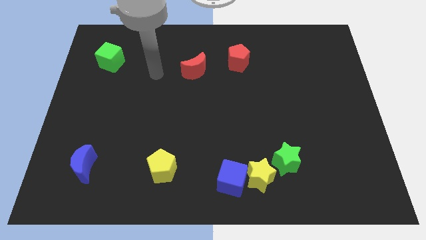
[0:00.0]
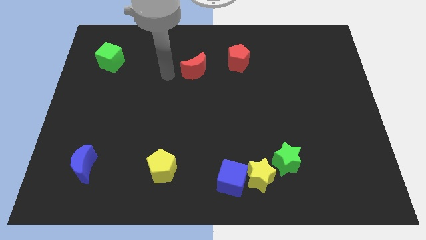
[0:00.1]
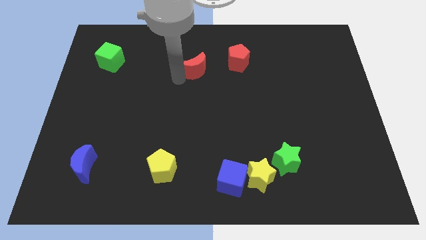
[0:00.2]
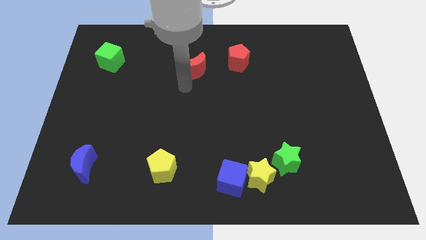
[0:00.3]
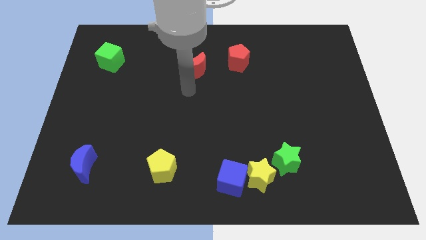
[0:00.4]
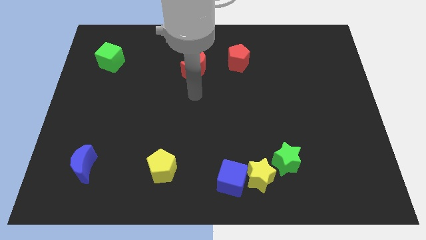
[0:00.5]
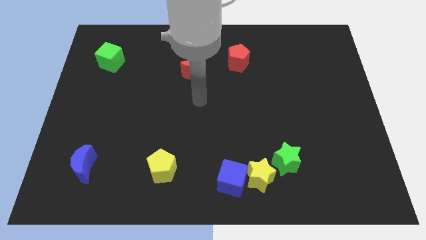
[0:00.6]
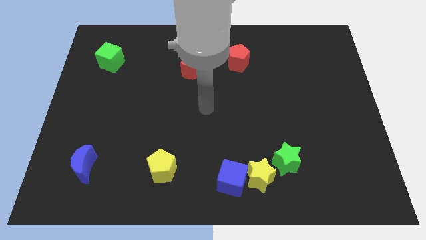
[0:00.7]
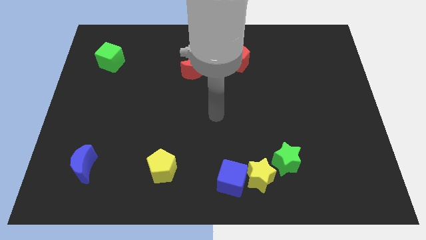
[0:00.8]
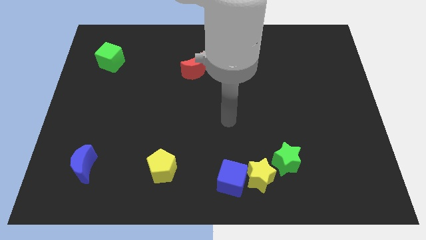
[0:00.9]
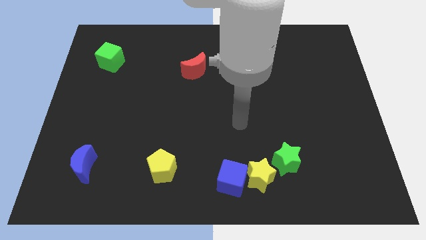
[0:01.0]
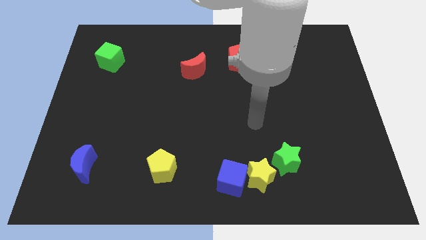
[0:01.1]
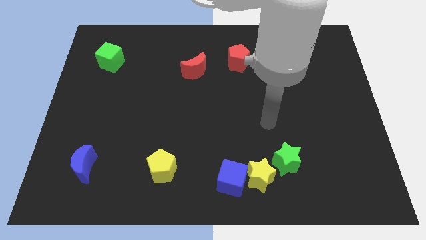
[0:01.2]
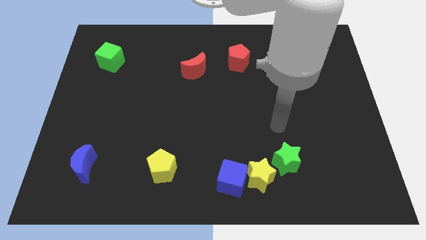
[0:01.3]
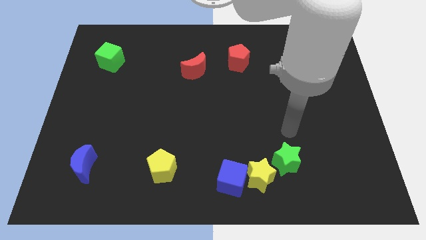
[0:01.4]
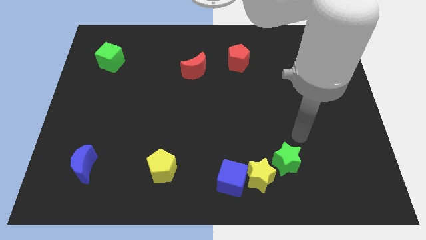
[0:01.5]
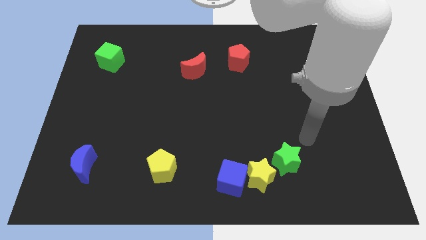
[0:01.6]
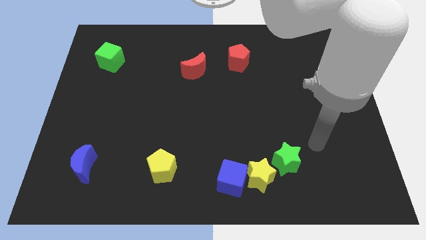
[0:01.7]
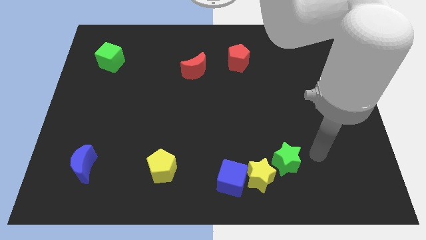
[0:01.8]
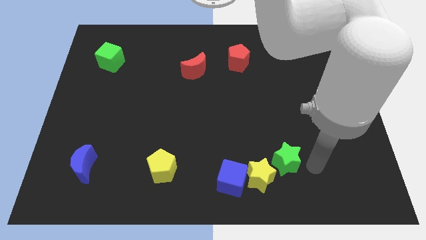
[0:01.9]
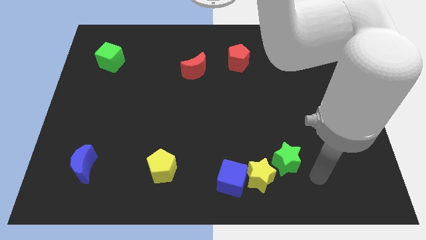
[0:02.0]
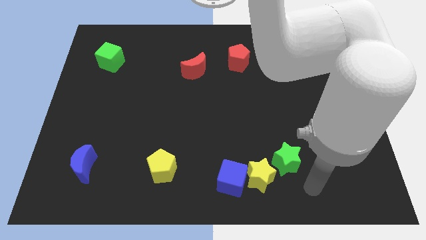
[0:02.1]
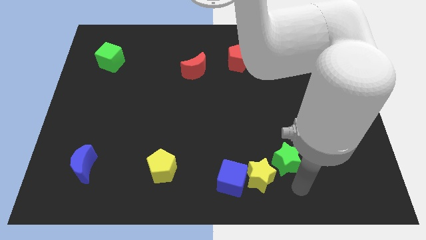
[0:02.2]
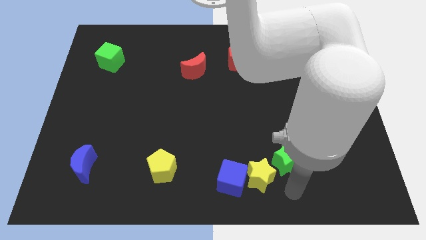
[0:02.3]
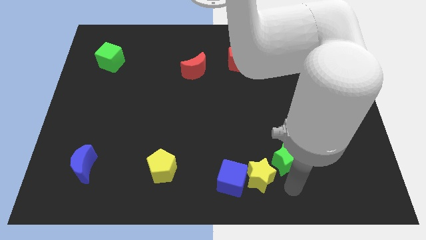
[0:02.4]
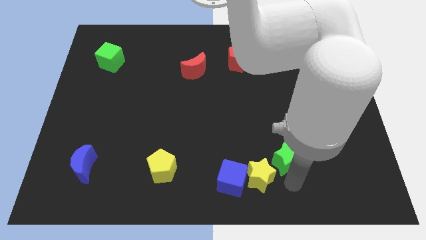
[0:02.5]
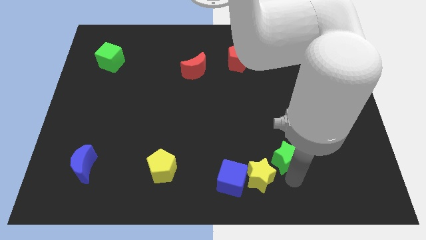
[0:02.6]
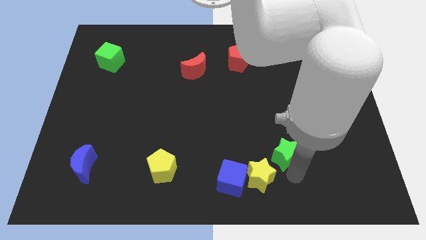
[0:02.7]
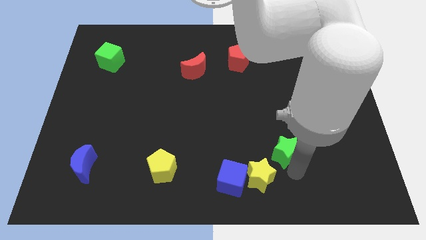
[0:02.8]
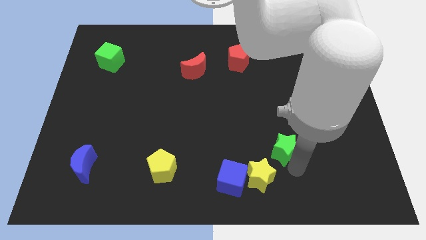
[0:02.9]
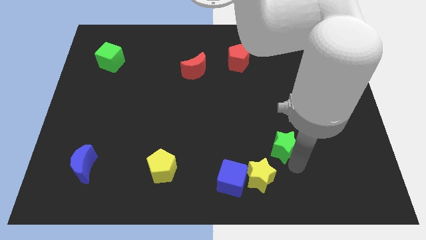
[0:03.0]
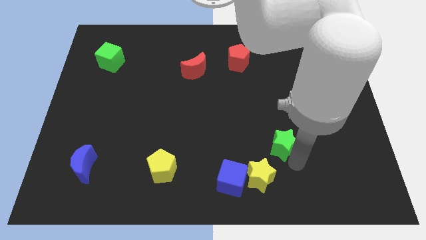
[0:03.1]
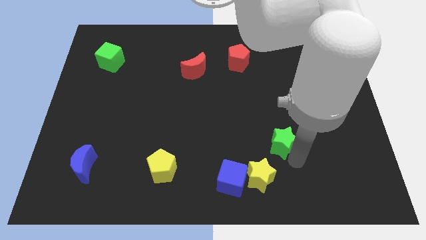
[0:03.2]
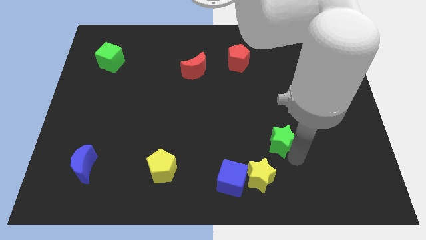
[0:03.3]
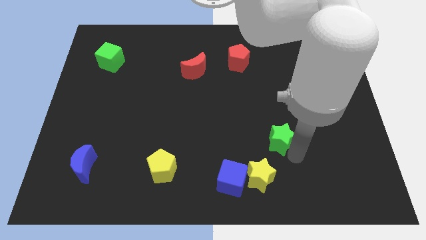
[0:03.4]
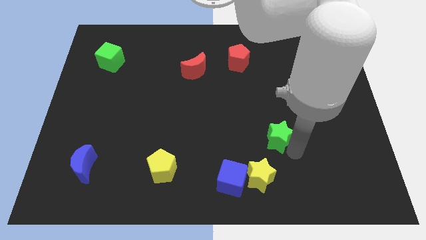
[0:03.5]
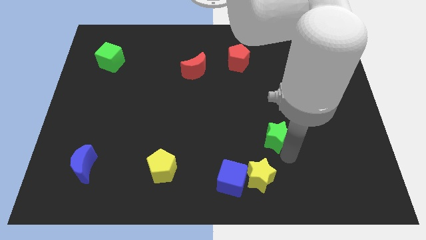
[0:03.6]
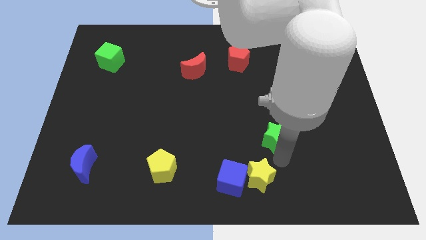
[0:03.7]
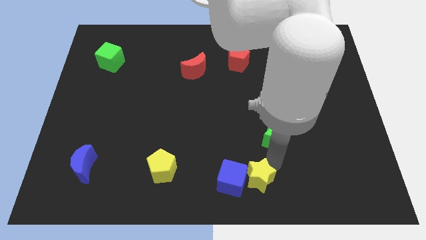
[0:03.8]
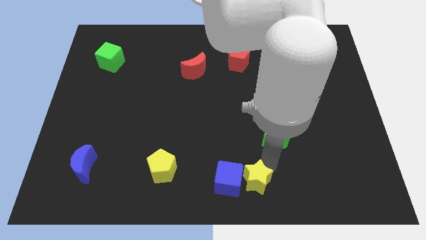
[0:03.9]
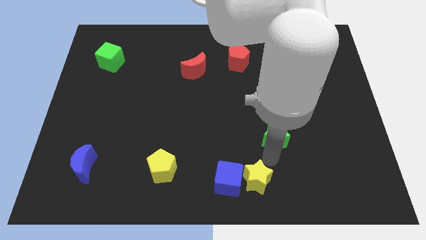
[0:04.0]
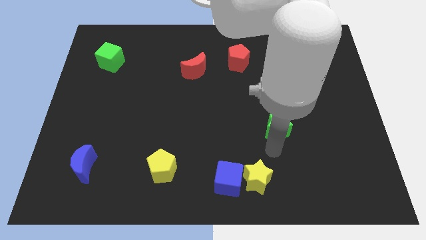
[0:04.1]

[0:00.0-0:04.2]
move the green star slightly upwards

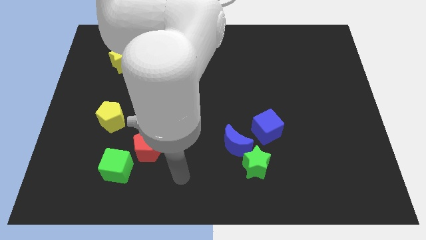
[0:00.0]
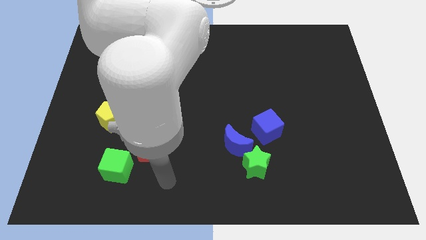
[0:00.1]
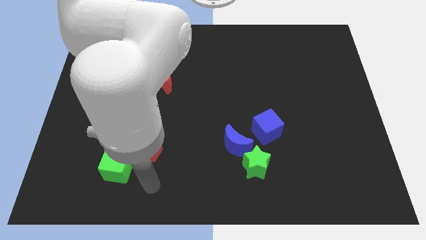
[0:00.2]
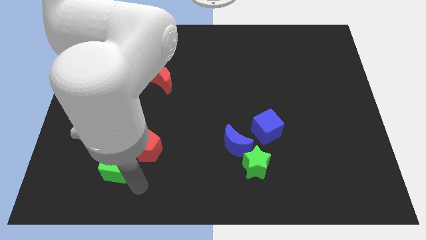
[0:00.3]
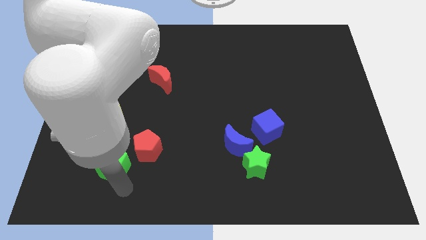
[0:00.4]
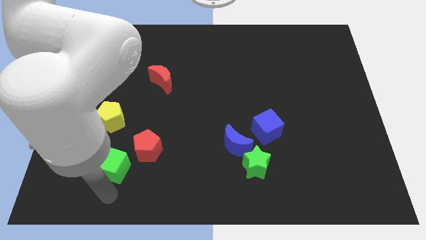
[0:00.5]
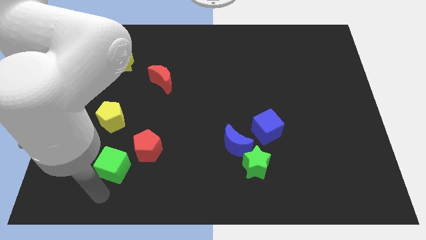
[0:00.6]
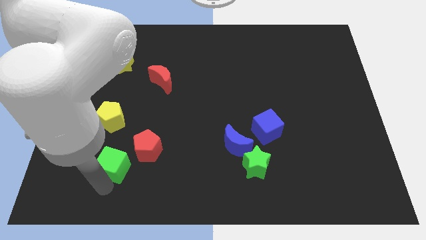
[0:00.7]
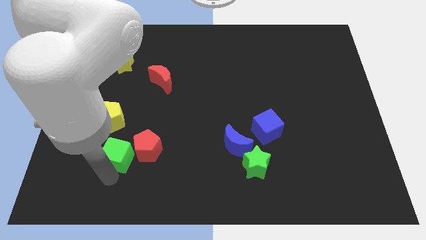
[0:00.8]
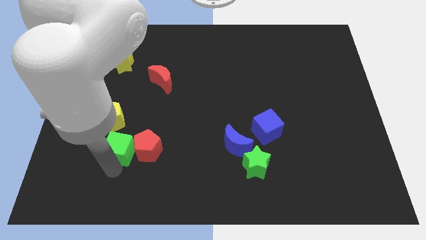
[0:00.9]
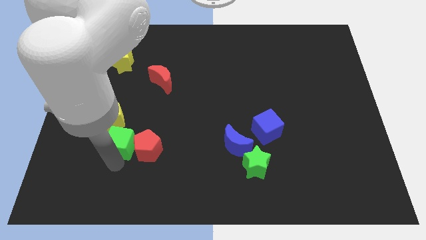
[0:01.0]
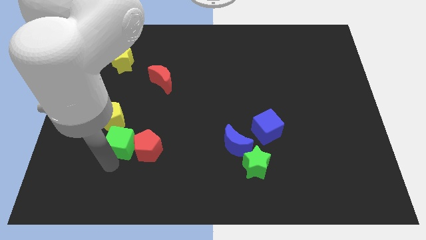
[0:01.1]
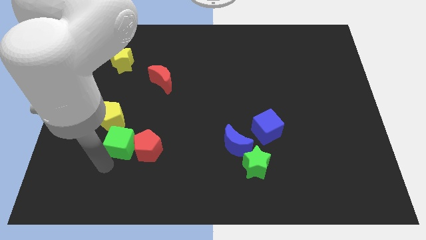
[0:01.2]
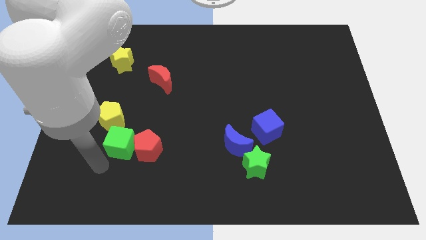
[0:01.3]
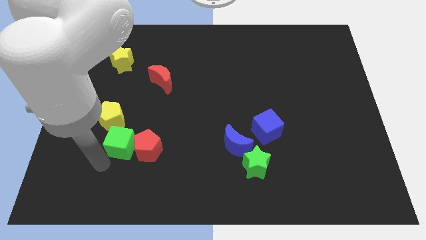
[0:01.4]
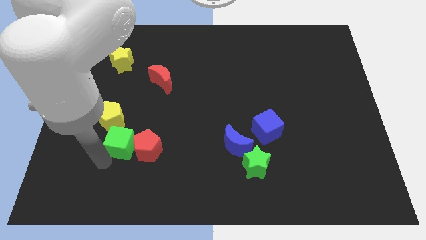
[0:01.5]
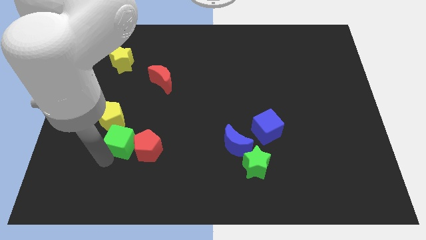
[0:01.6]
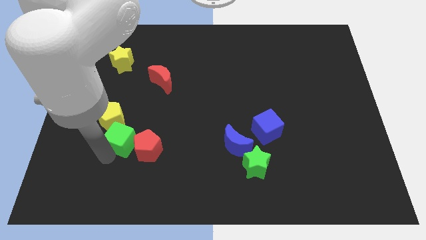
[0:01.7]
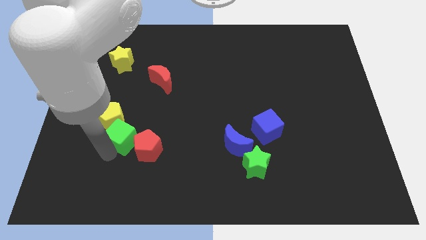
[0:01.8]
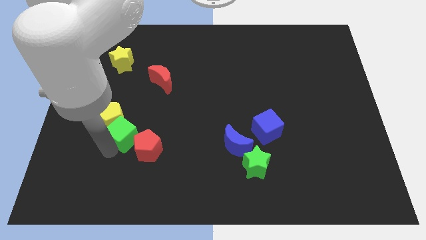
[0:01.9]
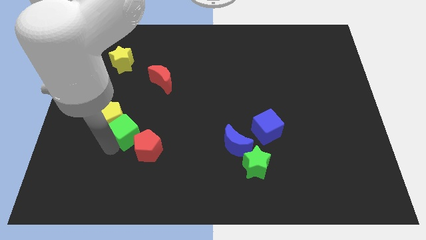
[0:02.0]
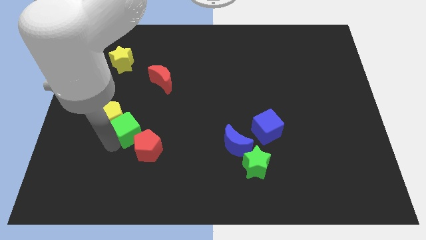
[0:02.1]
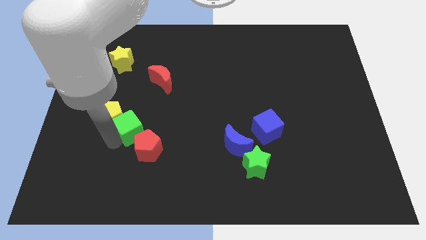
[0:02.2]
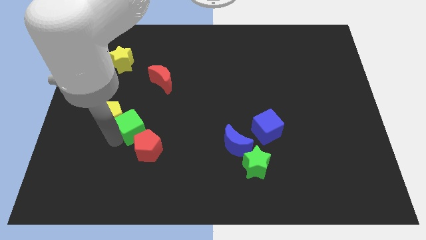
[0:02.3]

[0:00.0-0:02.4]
slightly move the green cube diagonally up and to the right

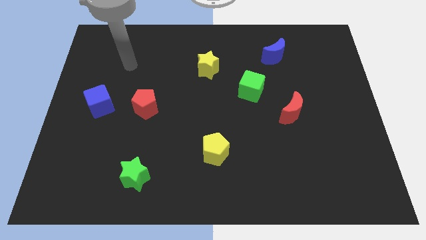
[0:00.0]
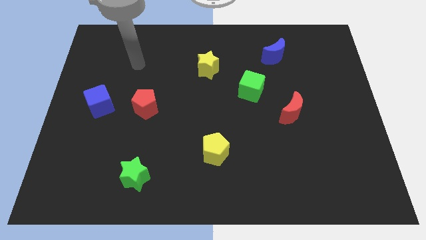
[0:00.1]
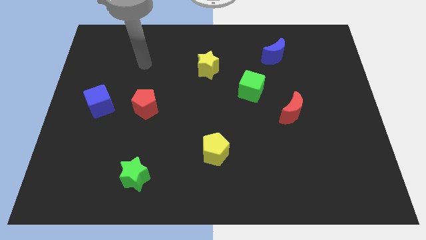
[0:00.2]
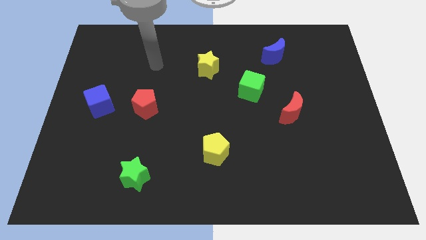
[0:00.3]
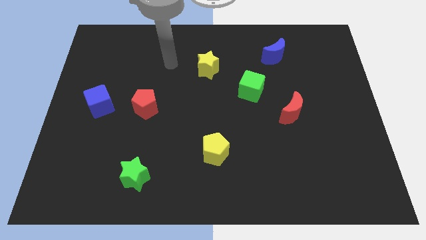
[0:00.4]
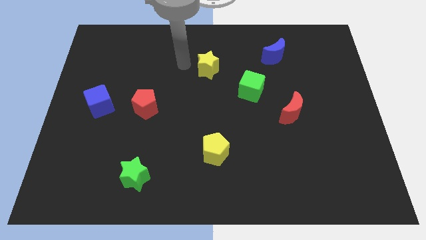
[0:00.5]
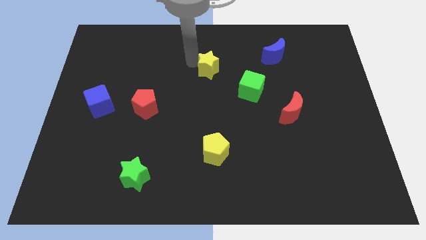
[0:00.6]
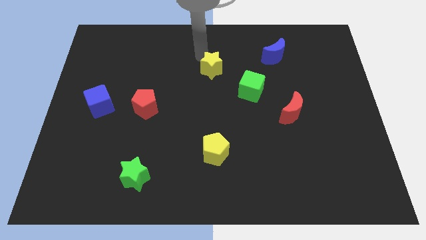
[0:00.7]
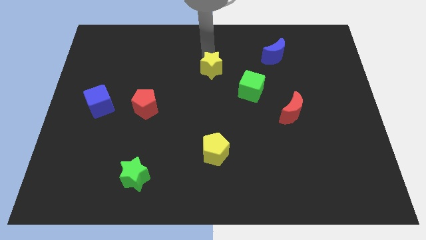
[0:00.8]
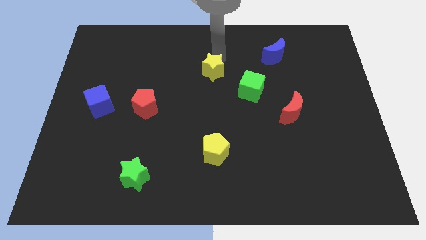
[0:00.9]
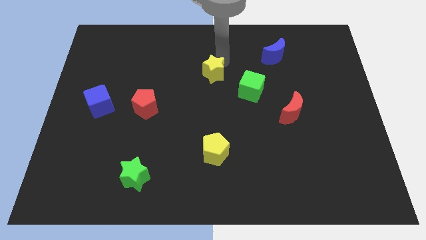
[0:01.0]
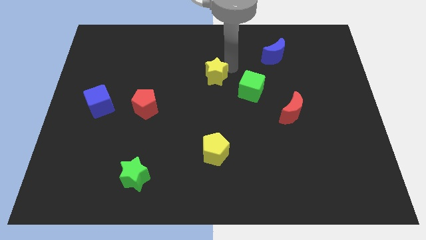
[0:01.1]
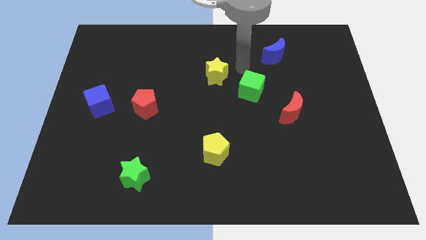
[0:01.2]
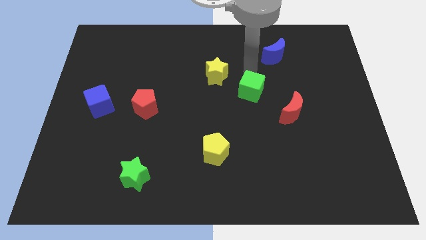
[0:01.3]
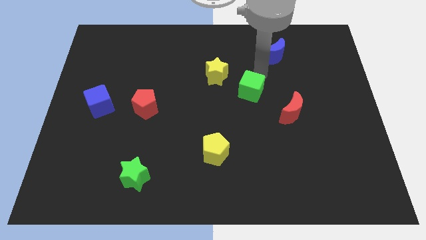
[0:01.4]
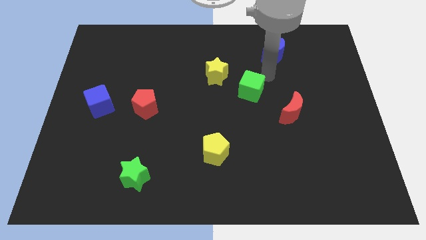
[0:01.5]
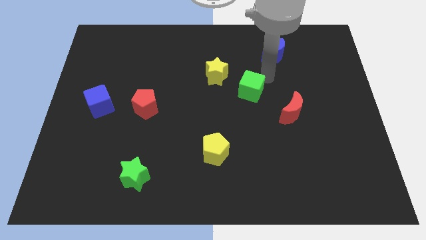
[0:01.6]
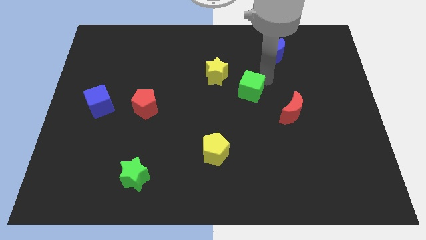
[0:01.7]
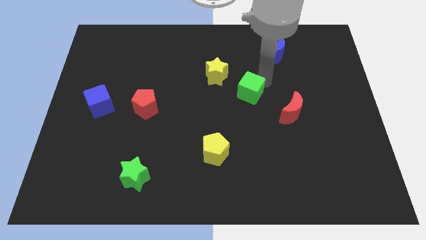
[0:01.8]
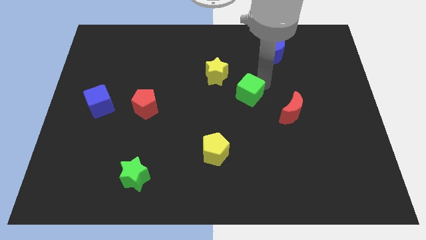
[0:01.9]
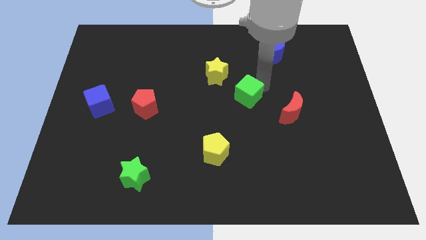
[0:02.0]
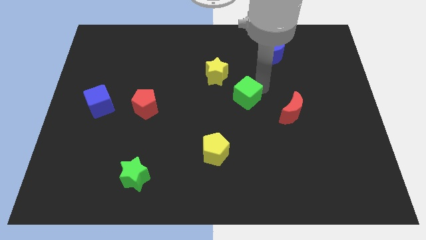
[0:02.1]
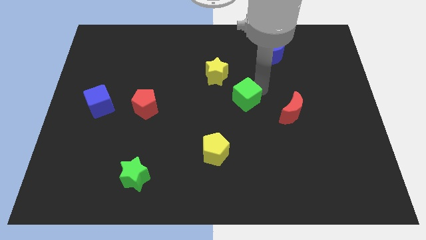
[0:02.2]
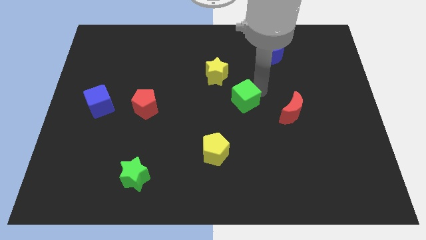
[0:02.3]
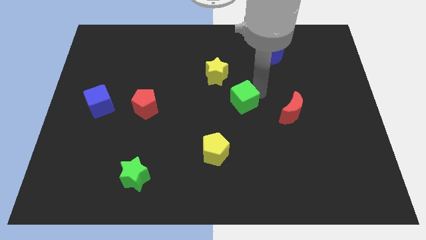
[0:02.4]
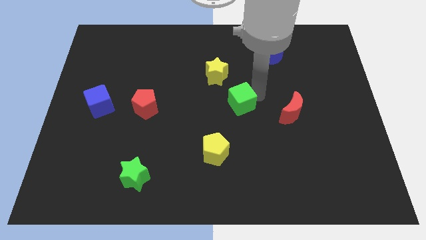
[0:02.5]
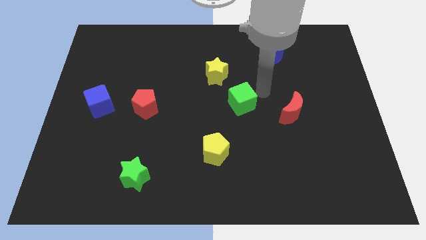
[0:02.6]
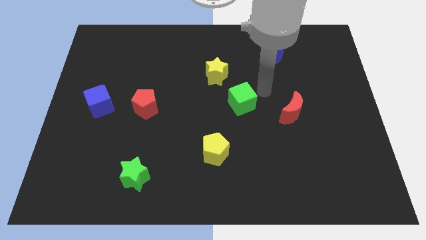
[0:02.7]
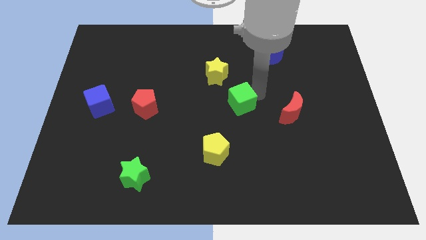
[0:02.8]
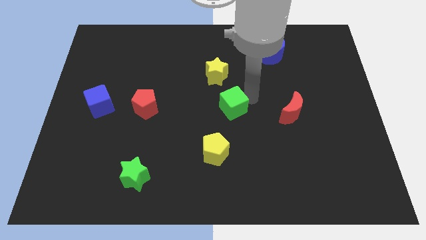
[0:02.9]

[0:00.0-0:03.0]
slide the green cube down and left a little
